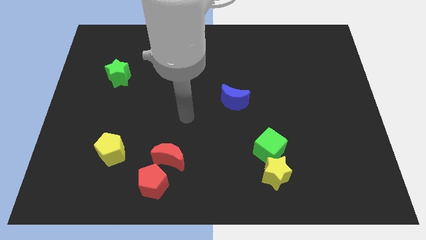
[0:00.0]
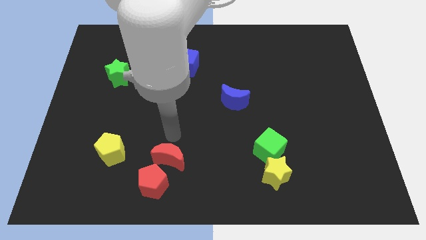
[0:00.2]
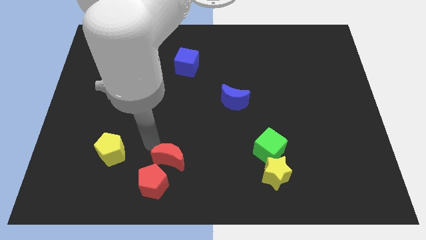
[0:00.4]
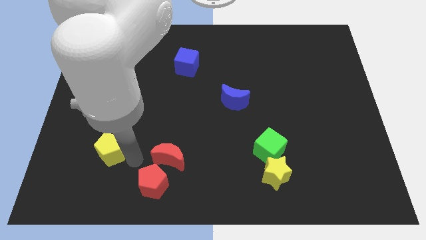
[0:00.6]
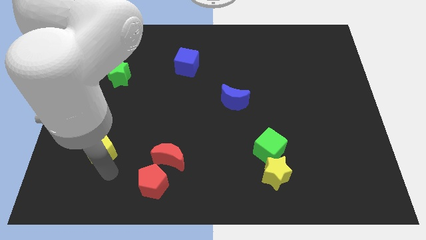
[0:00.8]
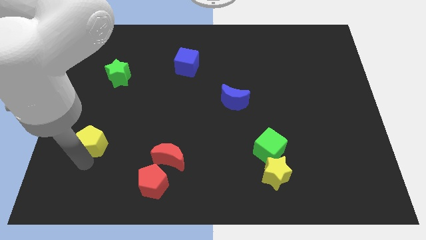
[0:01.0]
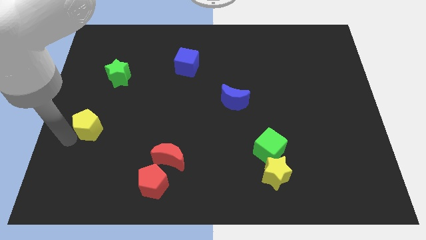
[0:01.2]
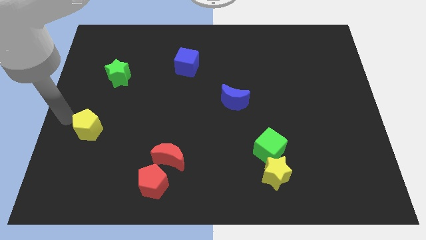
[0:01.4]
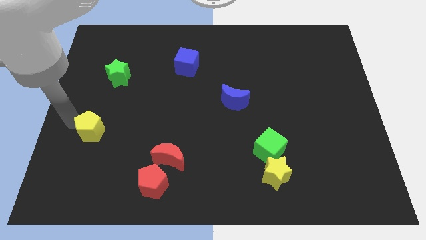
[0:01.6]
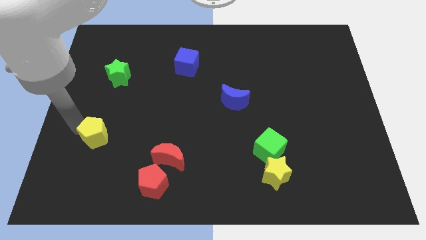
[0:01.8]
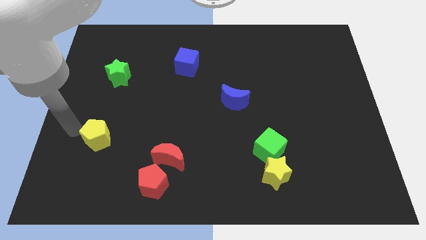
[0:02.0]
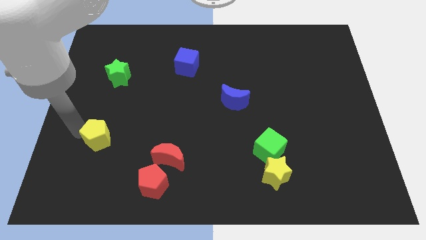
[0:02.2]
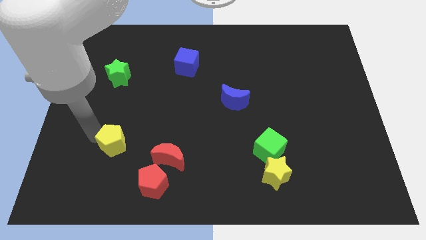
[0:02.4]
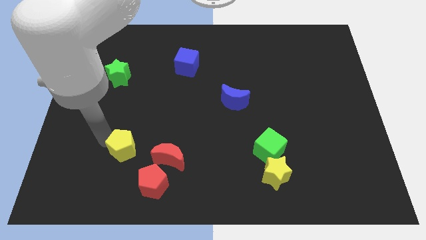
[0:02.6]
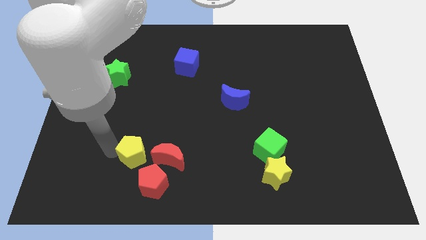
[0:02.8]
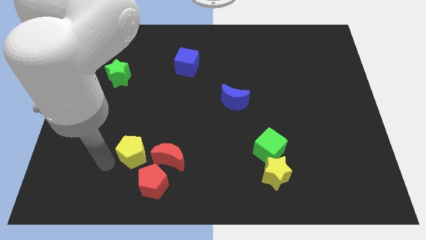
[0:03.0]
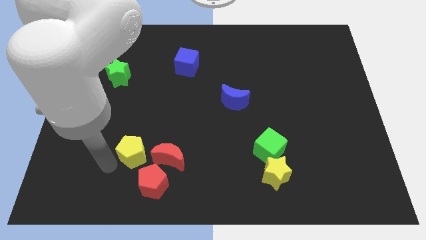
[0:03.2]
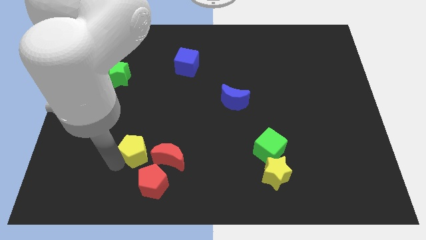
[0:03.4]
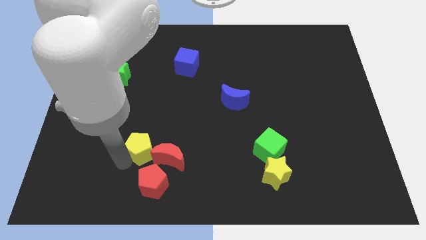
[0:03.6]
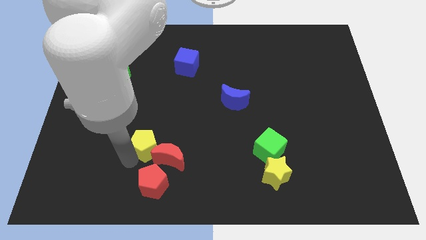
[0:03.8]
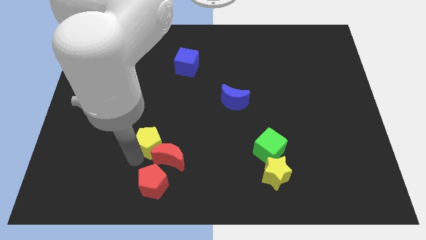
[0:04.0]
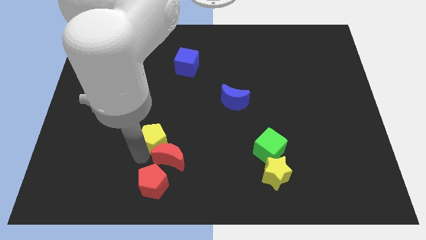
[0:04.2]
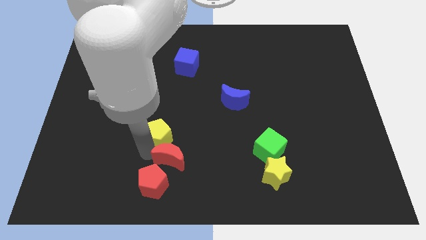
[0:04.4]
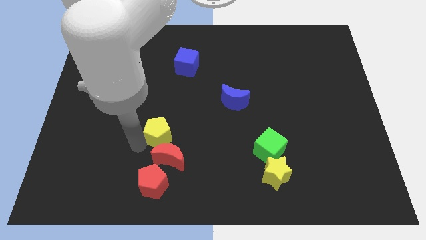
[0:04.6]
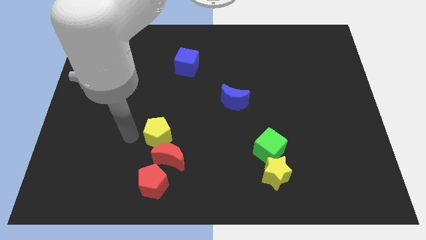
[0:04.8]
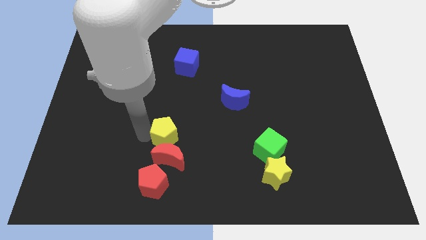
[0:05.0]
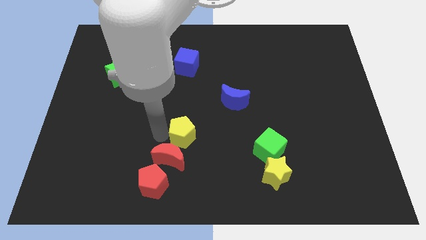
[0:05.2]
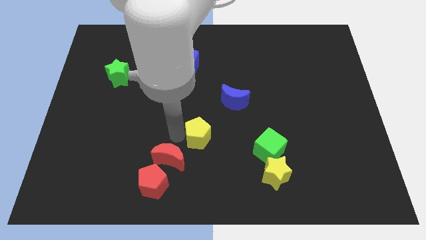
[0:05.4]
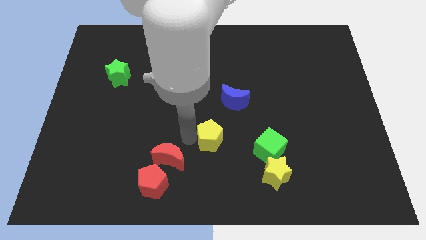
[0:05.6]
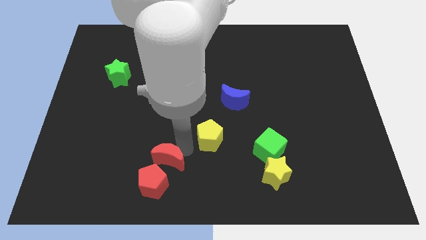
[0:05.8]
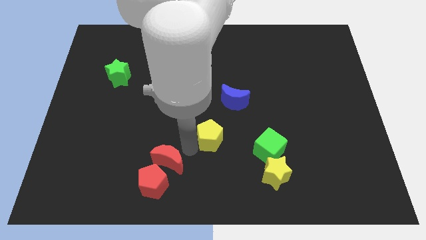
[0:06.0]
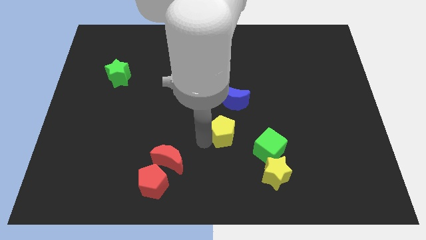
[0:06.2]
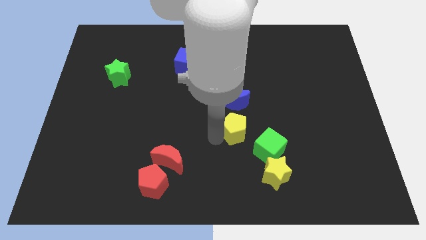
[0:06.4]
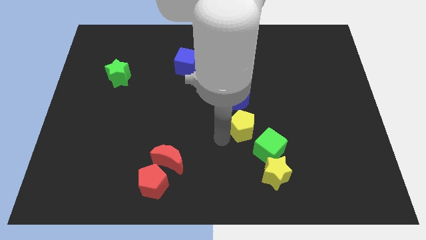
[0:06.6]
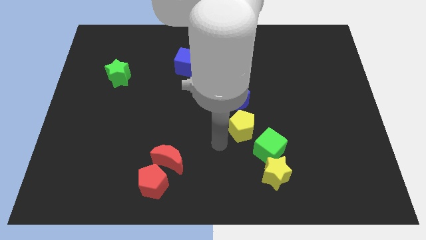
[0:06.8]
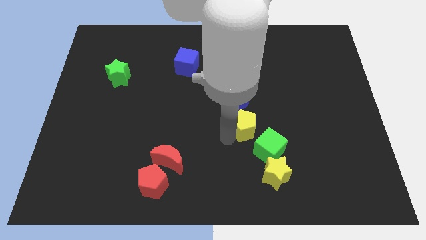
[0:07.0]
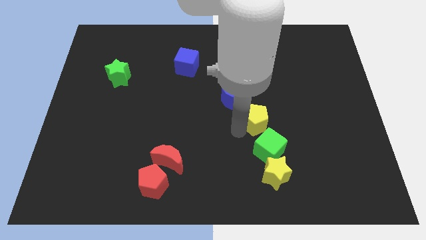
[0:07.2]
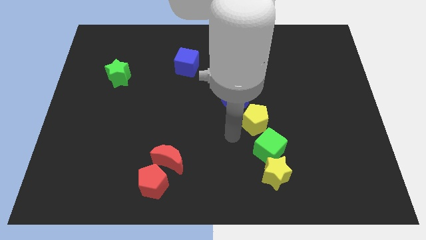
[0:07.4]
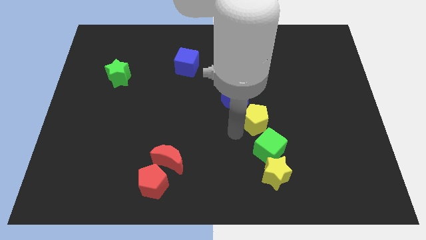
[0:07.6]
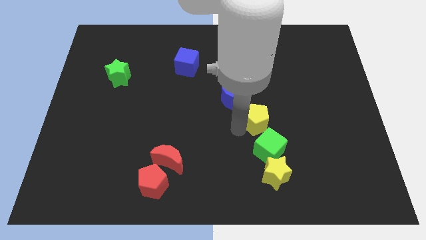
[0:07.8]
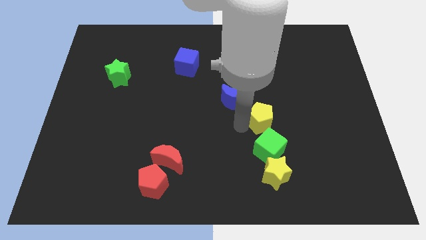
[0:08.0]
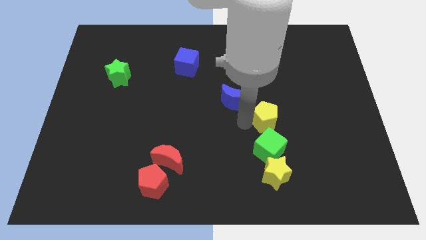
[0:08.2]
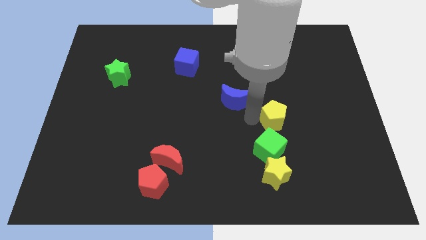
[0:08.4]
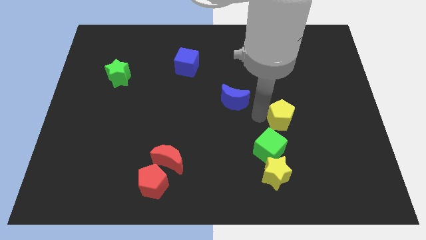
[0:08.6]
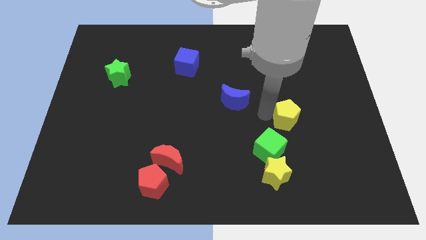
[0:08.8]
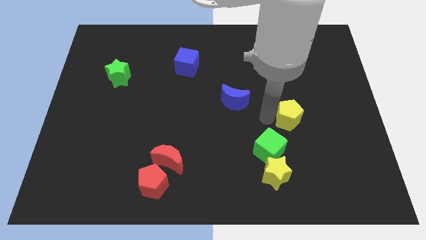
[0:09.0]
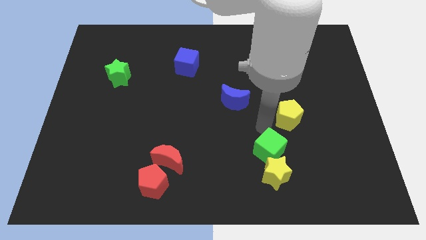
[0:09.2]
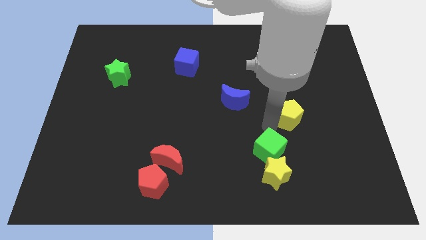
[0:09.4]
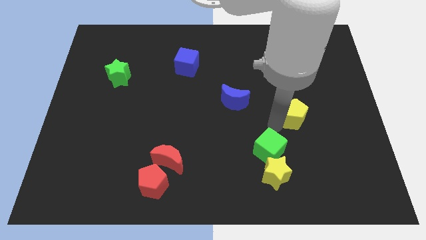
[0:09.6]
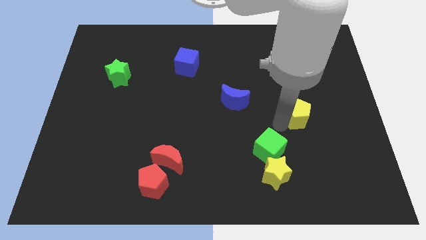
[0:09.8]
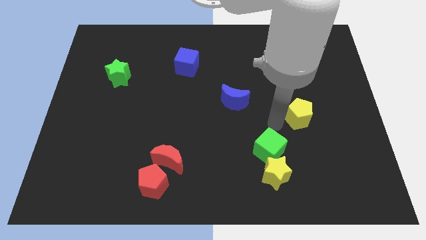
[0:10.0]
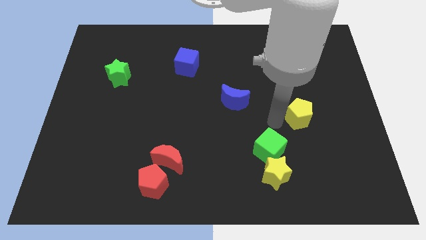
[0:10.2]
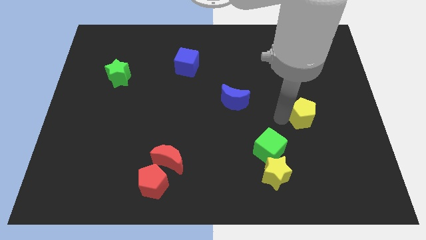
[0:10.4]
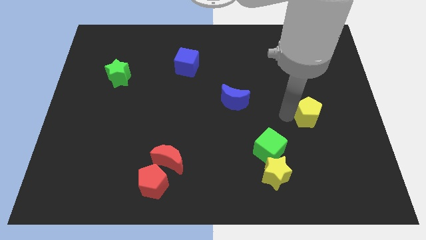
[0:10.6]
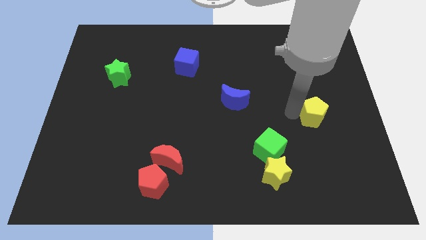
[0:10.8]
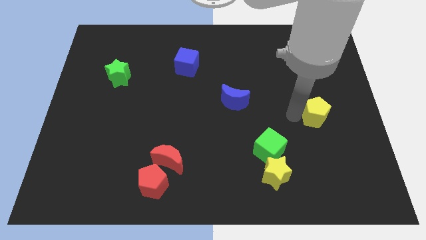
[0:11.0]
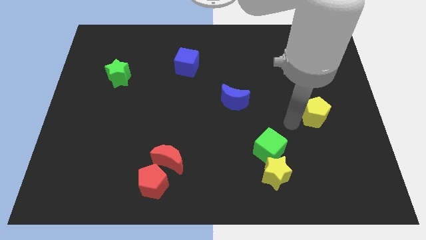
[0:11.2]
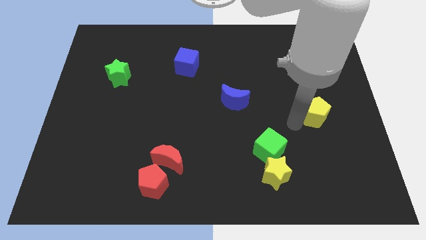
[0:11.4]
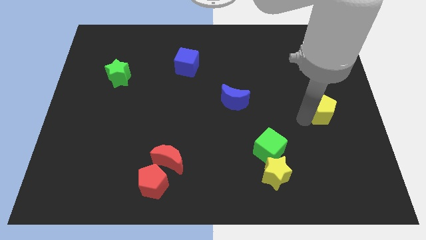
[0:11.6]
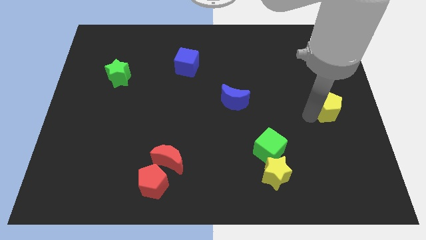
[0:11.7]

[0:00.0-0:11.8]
put the yellow pentagon to the right side
